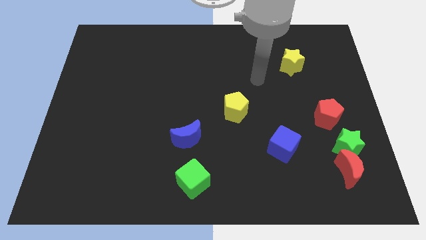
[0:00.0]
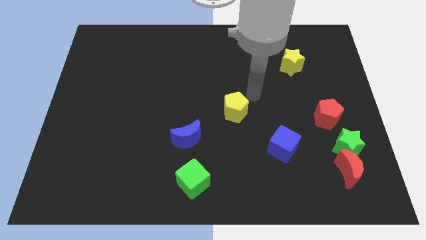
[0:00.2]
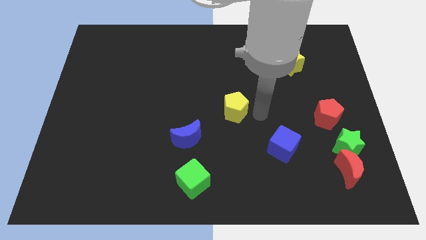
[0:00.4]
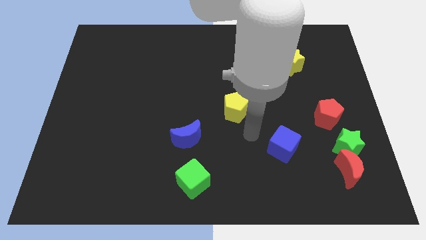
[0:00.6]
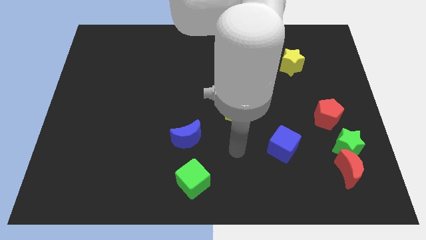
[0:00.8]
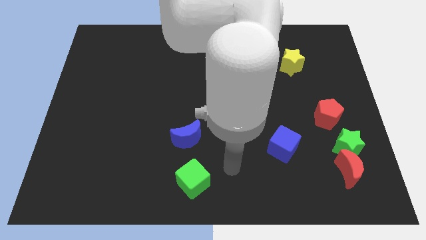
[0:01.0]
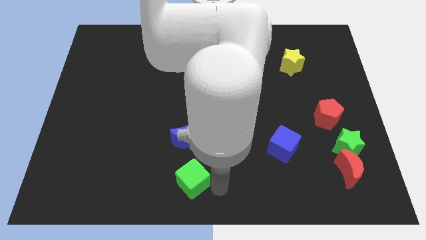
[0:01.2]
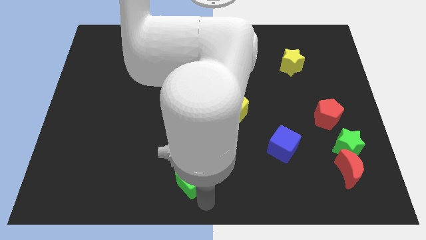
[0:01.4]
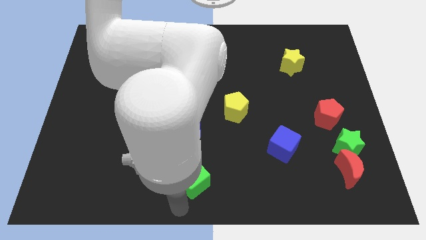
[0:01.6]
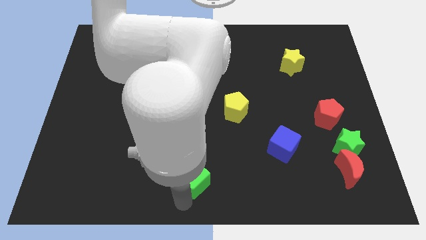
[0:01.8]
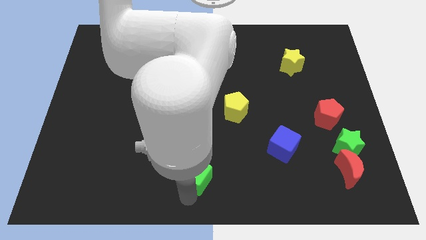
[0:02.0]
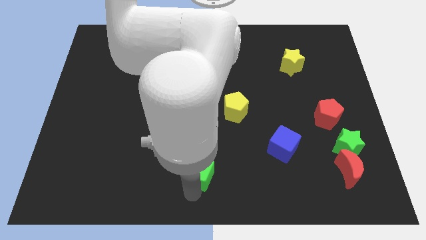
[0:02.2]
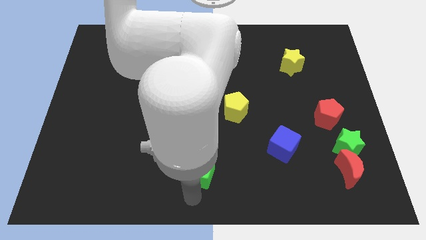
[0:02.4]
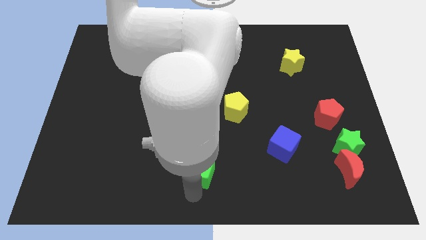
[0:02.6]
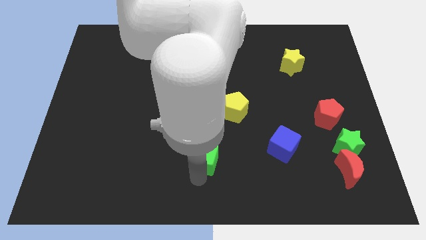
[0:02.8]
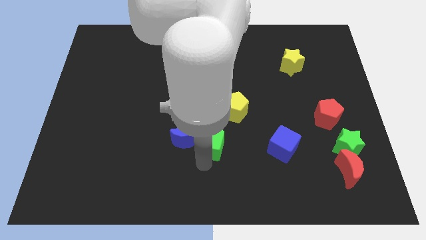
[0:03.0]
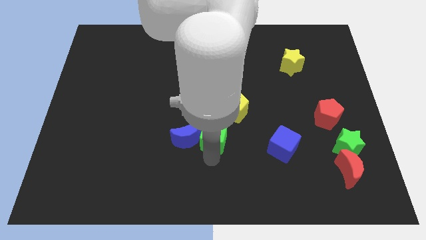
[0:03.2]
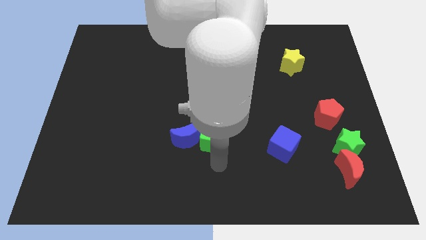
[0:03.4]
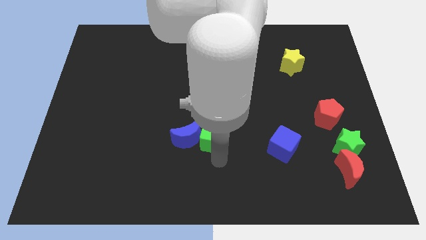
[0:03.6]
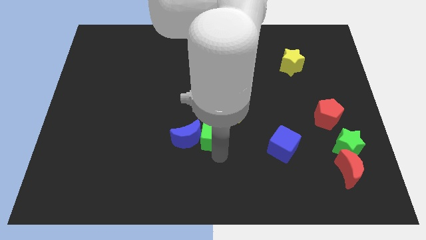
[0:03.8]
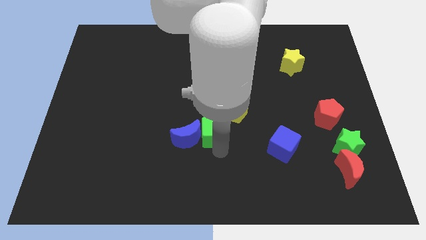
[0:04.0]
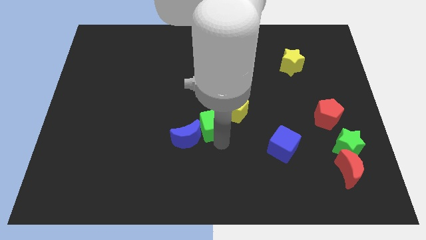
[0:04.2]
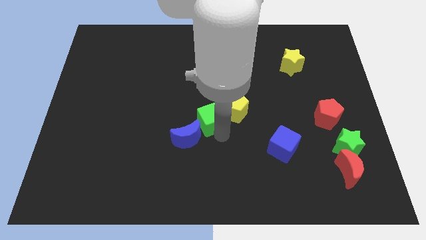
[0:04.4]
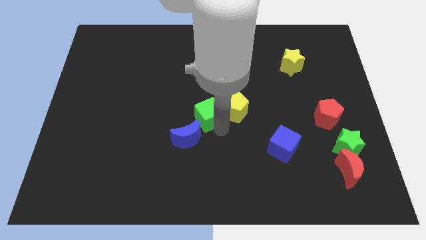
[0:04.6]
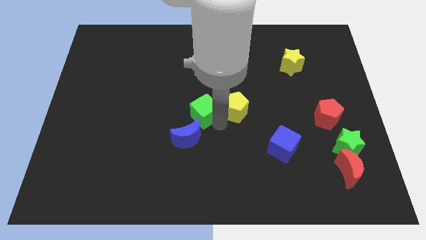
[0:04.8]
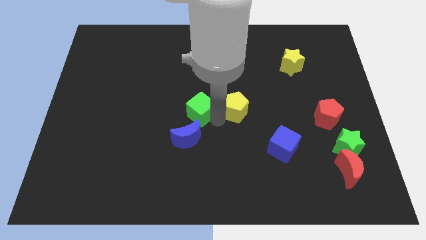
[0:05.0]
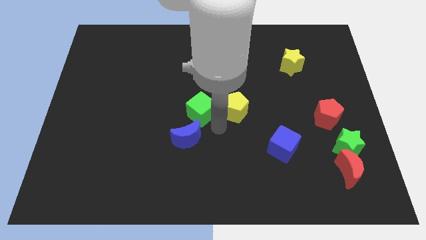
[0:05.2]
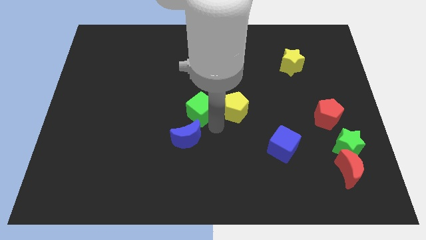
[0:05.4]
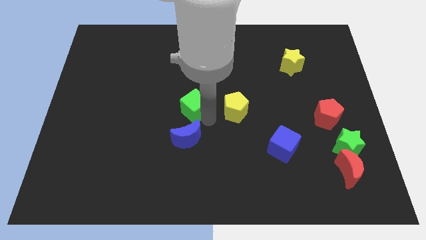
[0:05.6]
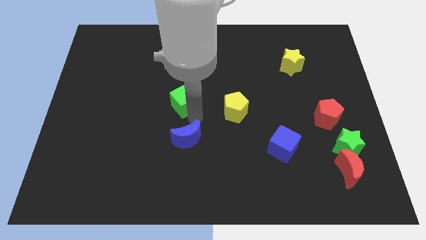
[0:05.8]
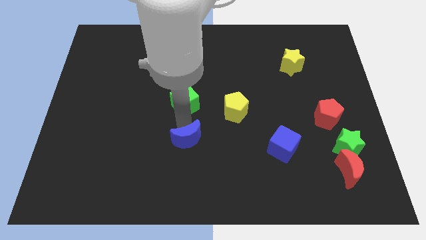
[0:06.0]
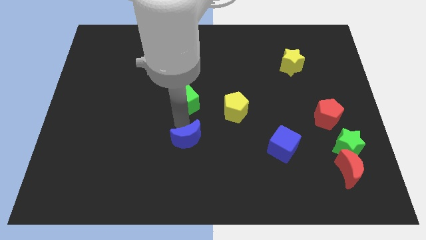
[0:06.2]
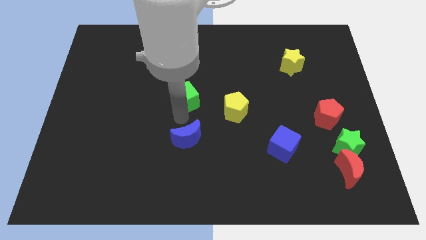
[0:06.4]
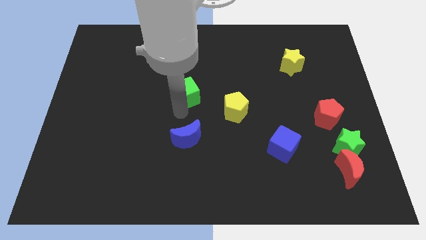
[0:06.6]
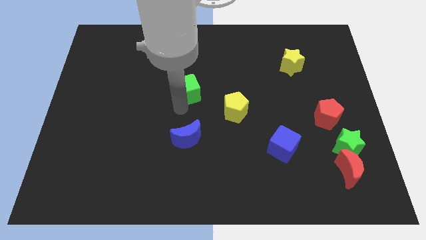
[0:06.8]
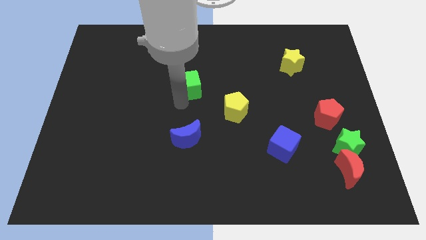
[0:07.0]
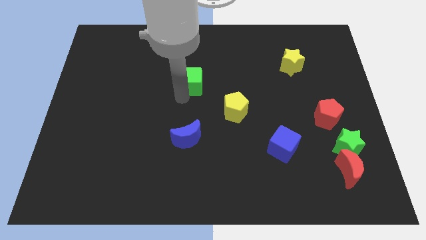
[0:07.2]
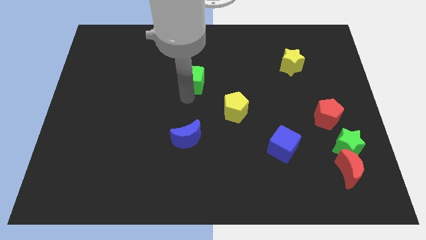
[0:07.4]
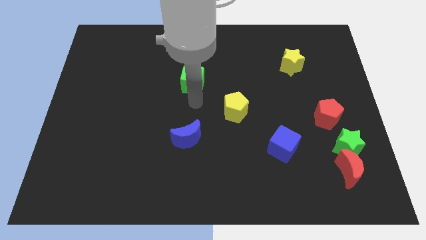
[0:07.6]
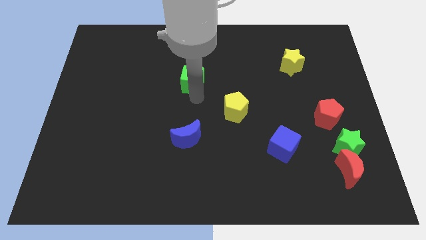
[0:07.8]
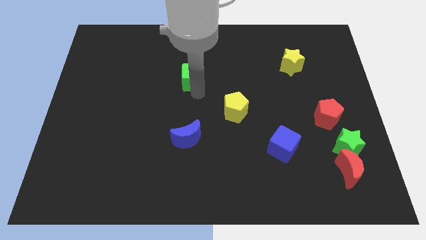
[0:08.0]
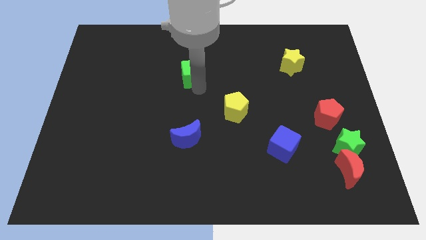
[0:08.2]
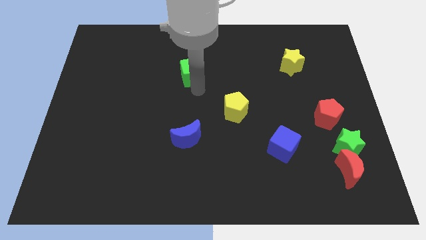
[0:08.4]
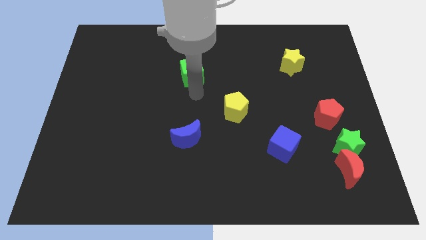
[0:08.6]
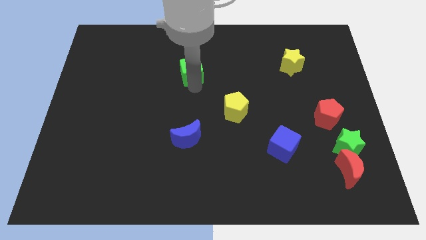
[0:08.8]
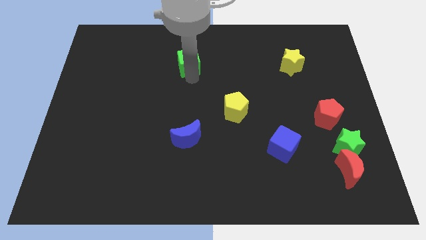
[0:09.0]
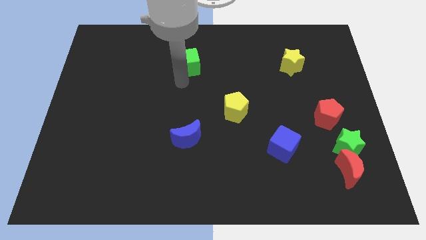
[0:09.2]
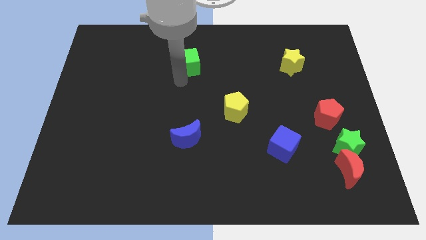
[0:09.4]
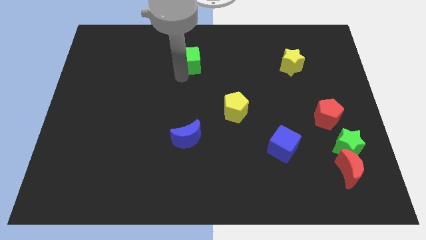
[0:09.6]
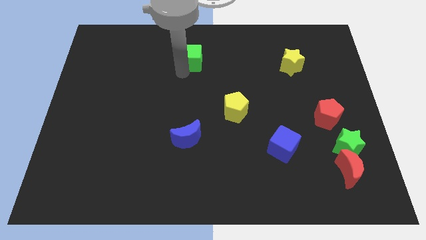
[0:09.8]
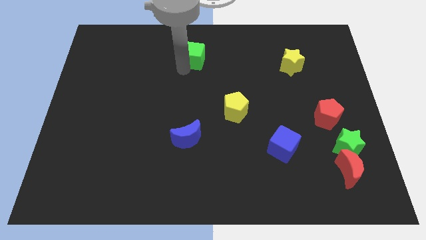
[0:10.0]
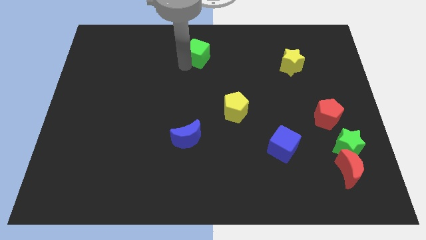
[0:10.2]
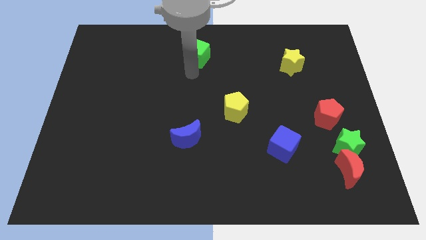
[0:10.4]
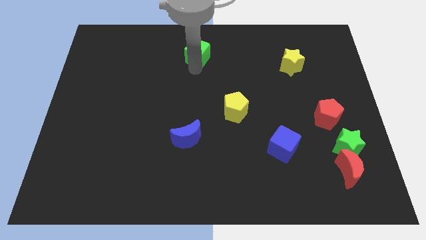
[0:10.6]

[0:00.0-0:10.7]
slide the green cube to the towards your base

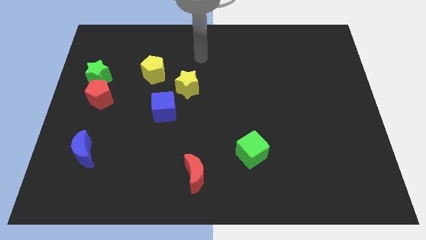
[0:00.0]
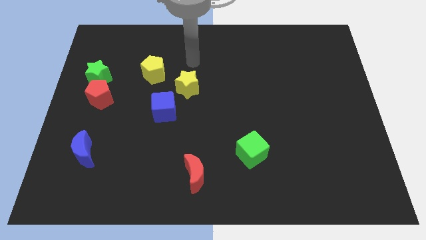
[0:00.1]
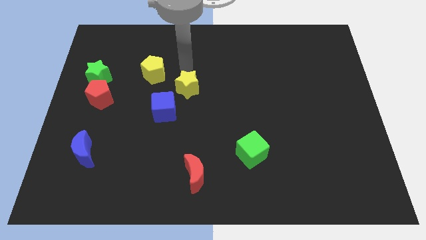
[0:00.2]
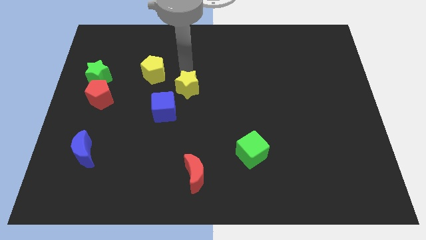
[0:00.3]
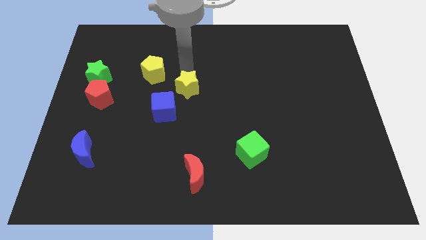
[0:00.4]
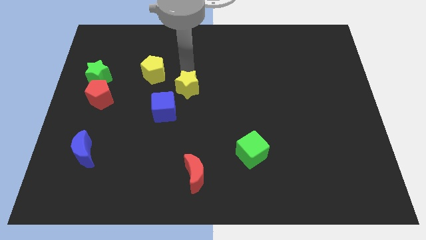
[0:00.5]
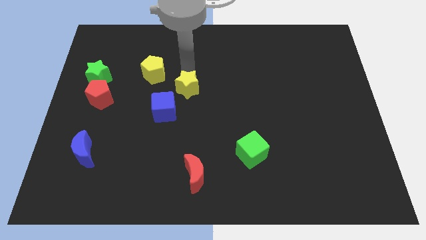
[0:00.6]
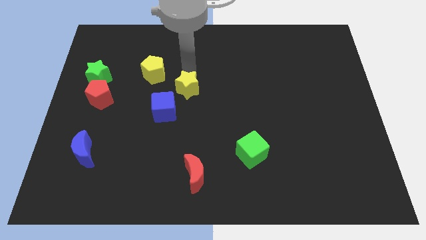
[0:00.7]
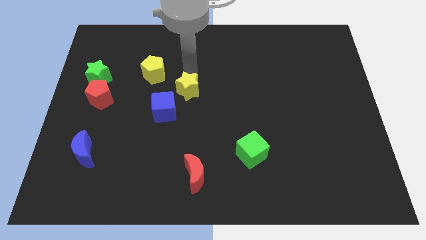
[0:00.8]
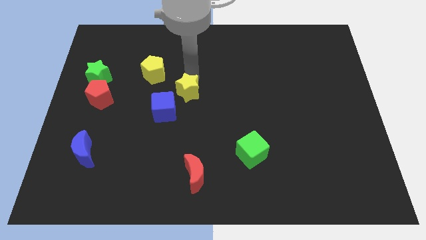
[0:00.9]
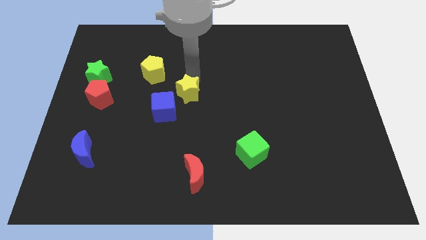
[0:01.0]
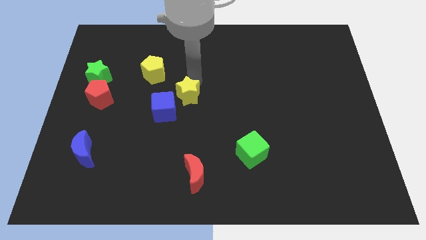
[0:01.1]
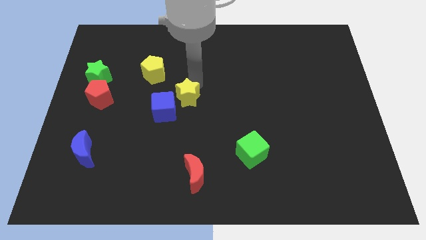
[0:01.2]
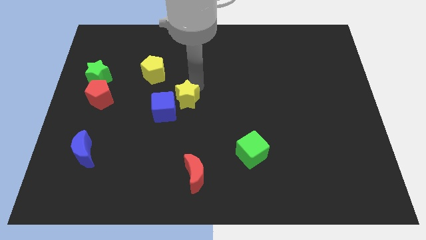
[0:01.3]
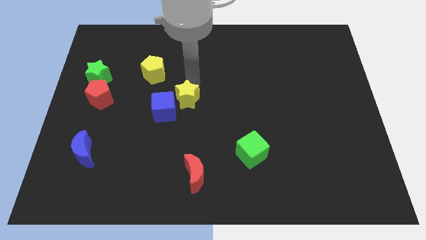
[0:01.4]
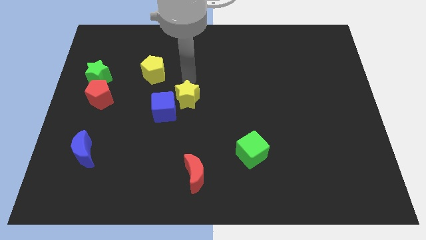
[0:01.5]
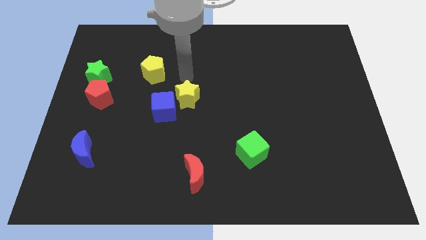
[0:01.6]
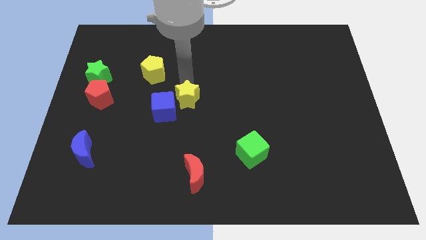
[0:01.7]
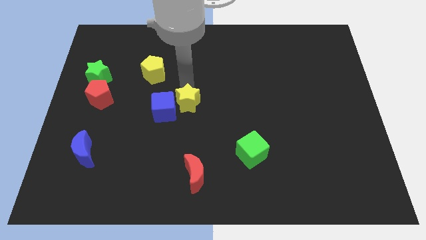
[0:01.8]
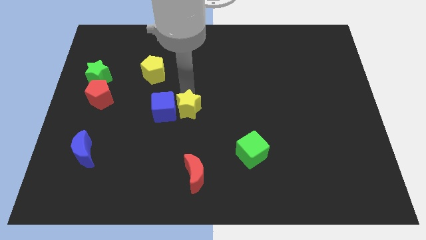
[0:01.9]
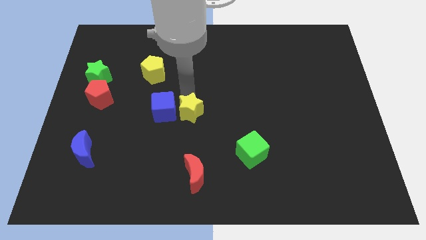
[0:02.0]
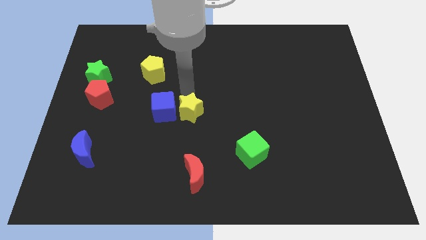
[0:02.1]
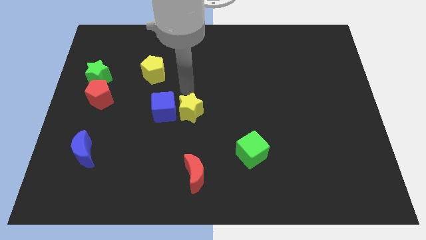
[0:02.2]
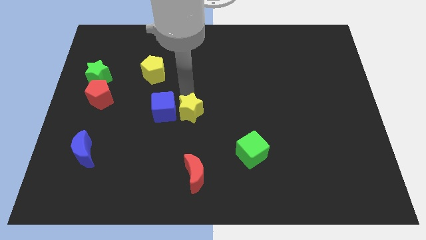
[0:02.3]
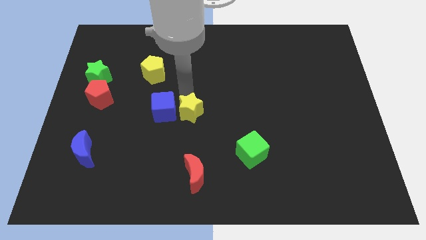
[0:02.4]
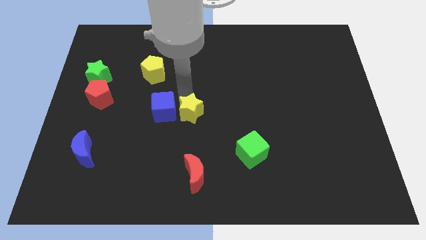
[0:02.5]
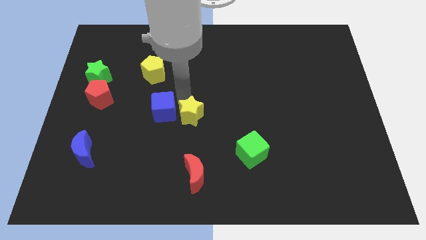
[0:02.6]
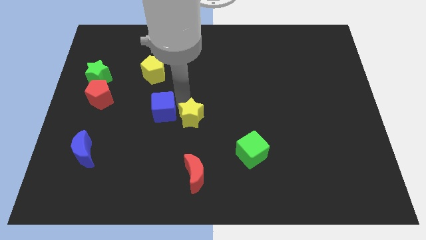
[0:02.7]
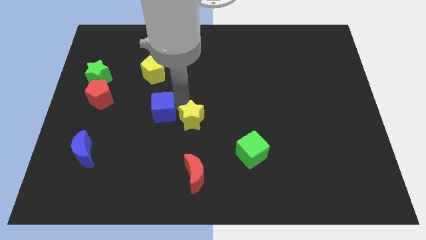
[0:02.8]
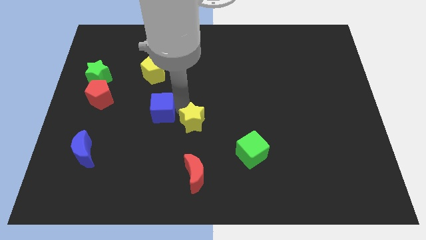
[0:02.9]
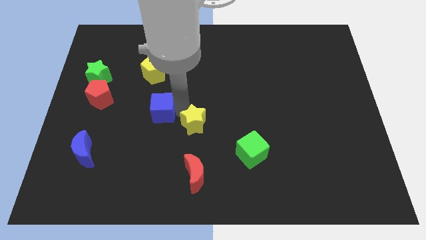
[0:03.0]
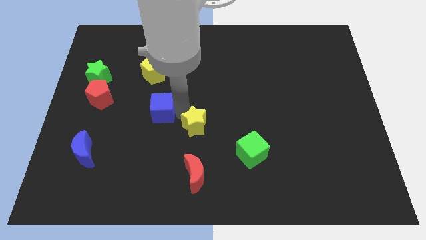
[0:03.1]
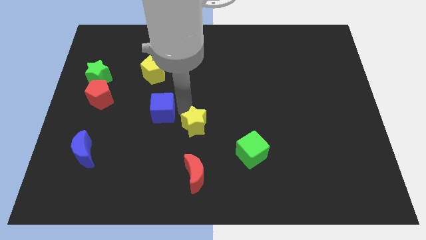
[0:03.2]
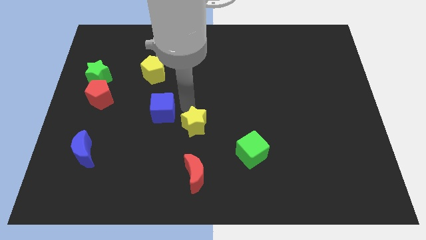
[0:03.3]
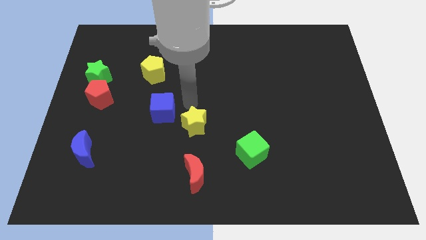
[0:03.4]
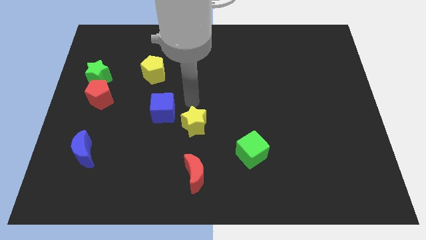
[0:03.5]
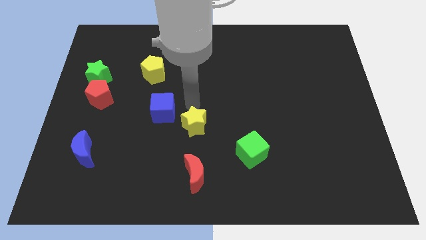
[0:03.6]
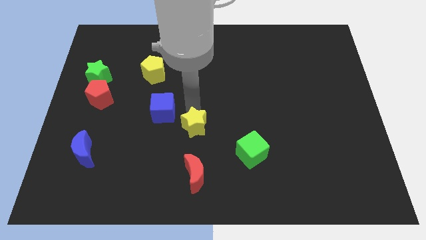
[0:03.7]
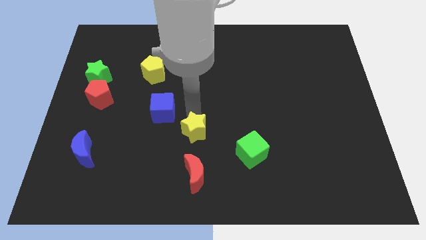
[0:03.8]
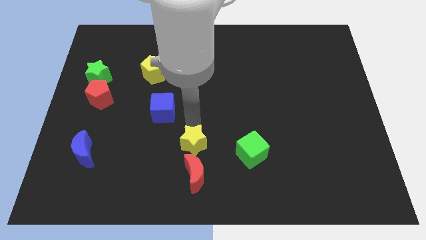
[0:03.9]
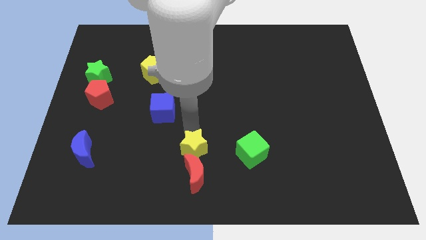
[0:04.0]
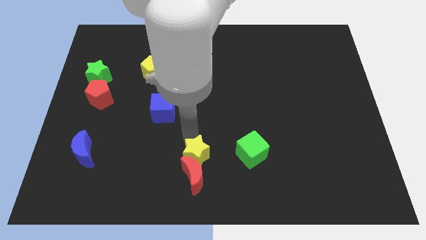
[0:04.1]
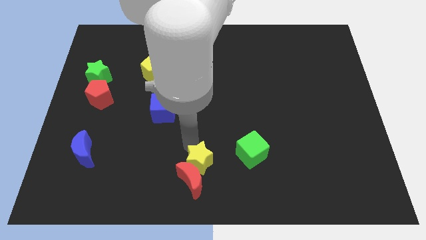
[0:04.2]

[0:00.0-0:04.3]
put the yellow star to the bottom
